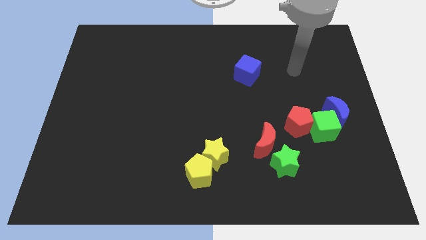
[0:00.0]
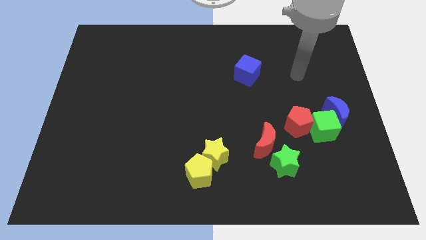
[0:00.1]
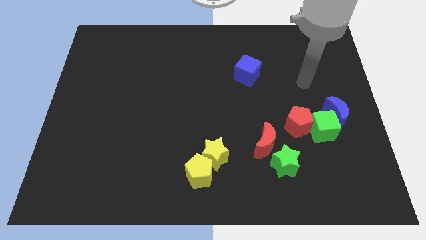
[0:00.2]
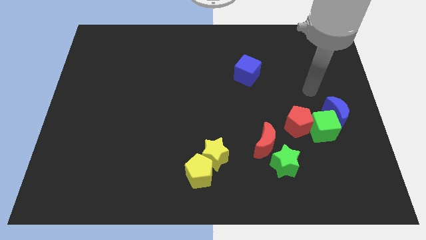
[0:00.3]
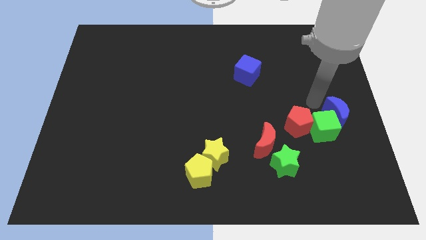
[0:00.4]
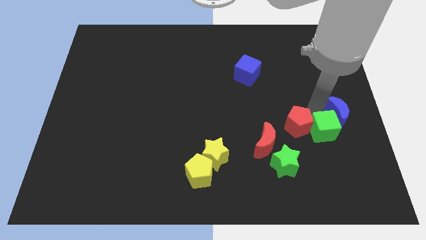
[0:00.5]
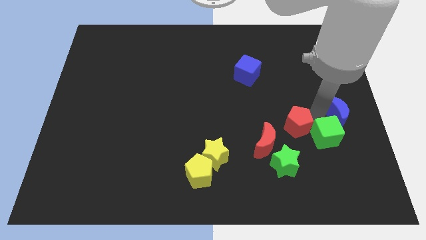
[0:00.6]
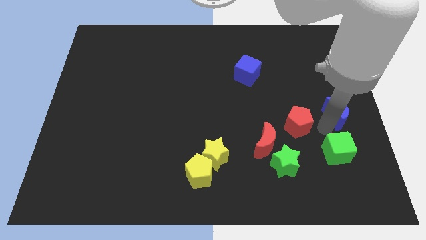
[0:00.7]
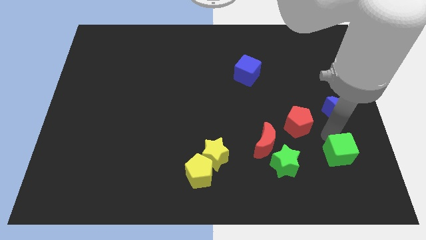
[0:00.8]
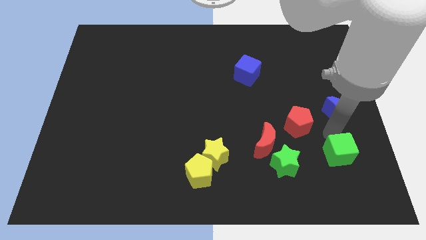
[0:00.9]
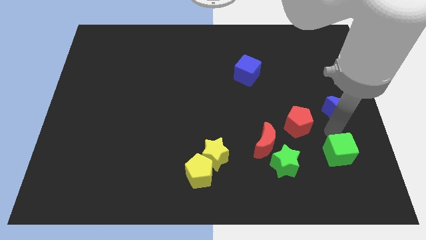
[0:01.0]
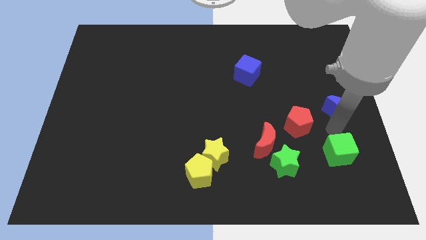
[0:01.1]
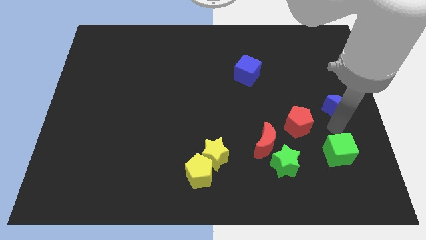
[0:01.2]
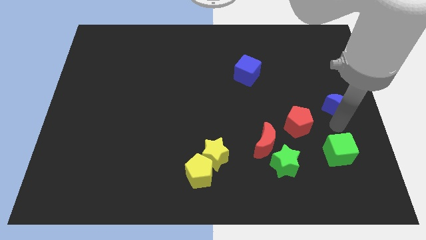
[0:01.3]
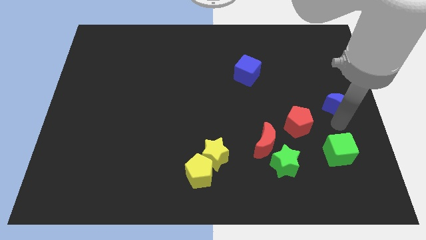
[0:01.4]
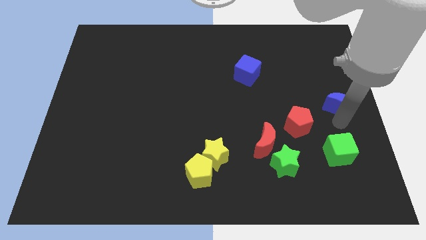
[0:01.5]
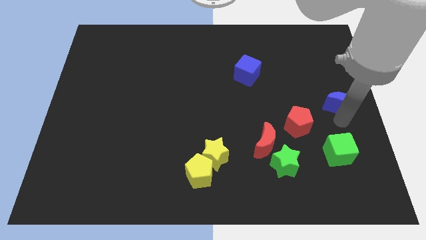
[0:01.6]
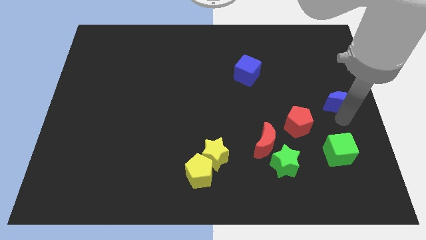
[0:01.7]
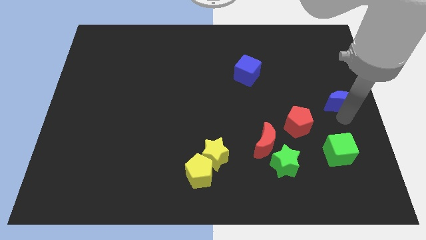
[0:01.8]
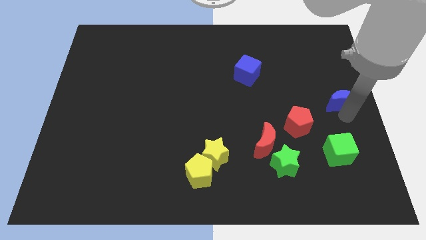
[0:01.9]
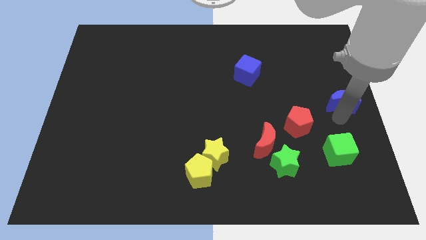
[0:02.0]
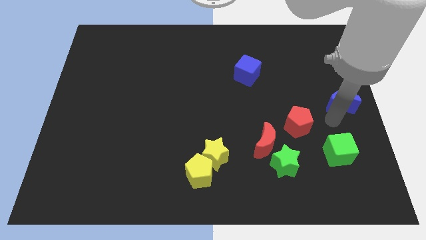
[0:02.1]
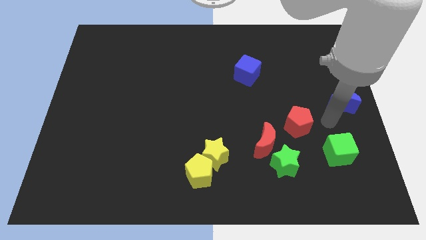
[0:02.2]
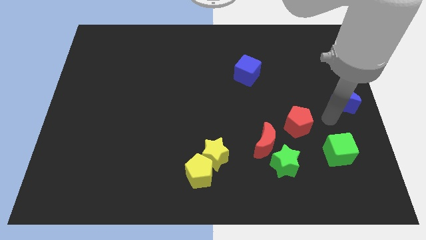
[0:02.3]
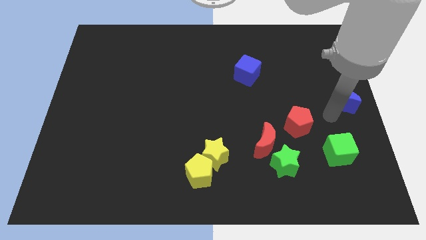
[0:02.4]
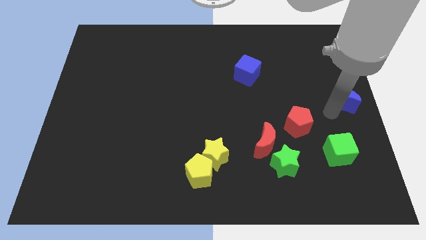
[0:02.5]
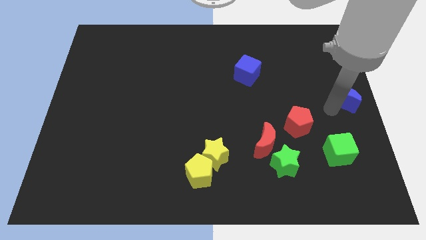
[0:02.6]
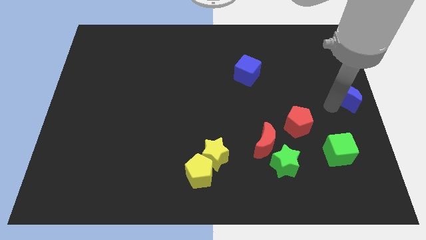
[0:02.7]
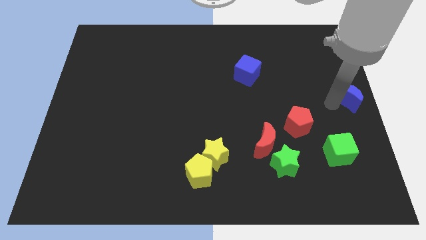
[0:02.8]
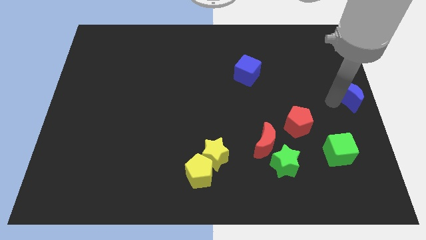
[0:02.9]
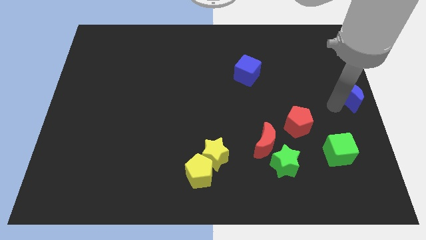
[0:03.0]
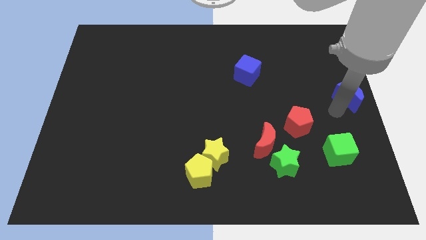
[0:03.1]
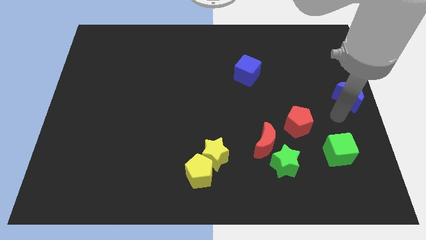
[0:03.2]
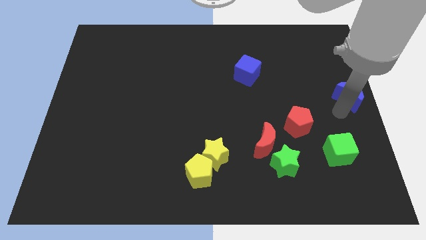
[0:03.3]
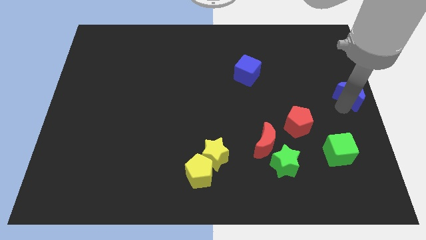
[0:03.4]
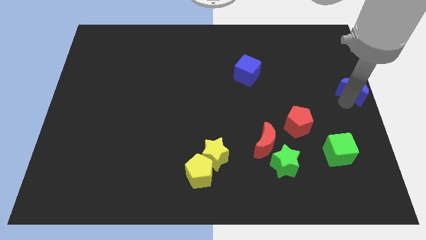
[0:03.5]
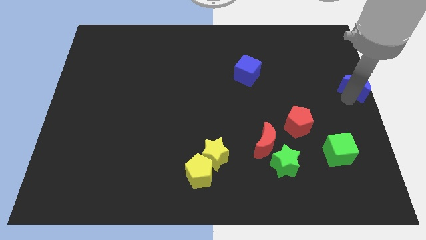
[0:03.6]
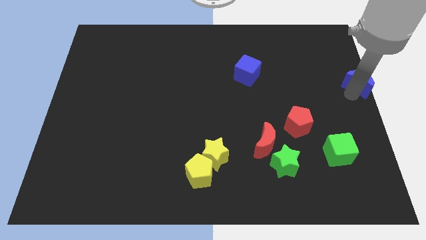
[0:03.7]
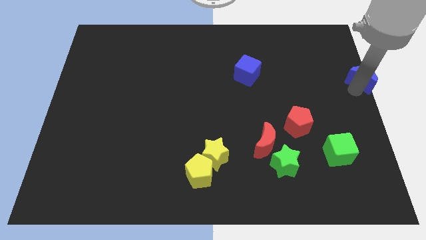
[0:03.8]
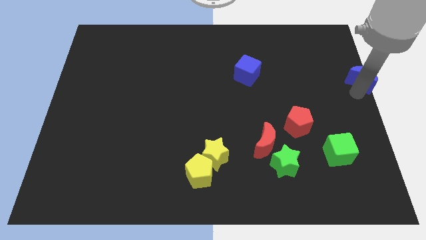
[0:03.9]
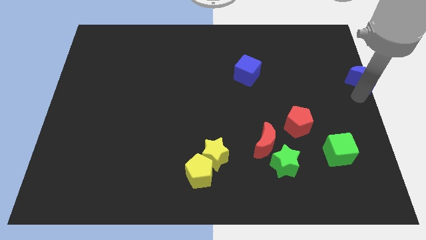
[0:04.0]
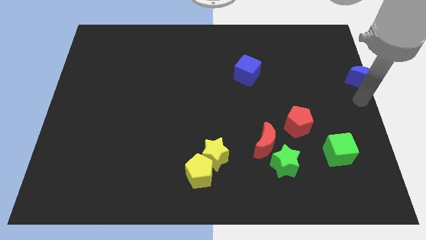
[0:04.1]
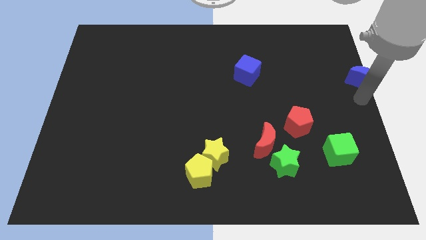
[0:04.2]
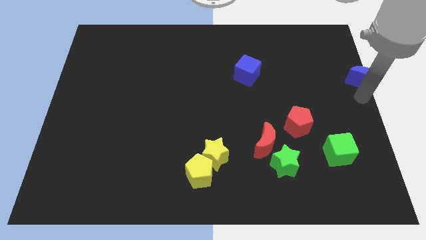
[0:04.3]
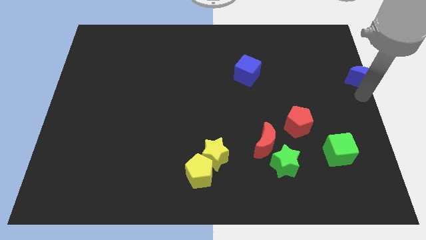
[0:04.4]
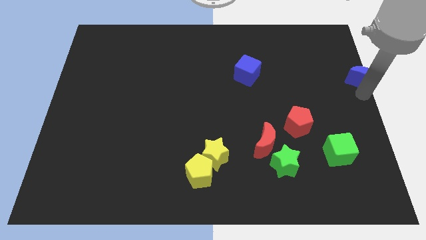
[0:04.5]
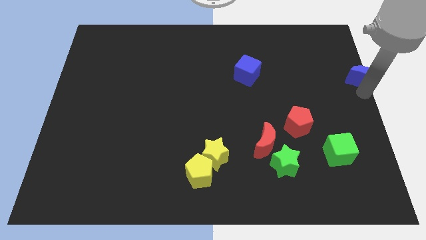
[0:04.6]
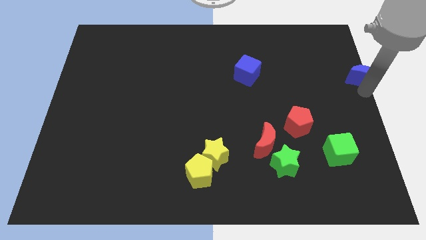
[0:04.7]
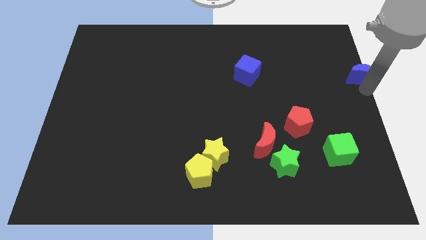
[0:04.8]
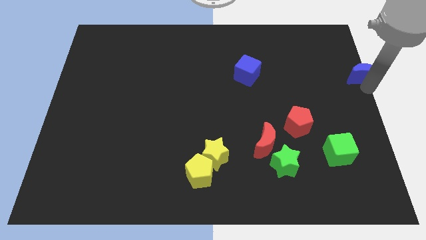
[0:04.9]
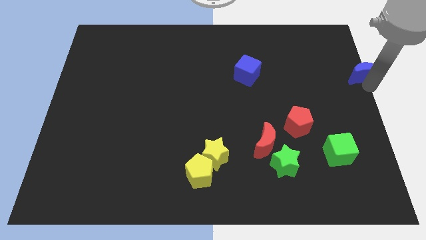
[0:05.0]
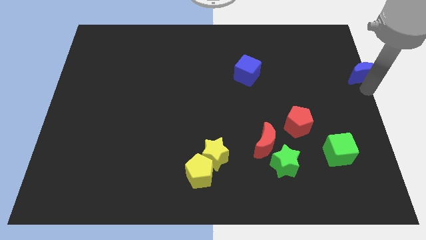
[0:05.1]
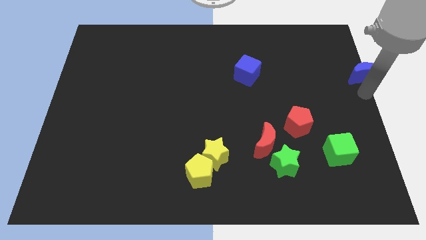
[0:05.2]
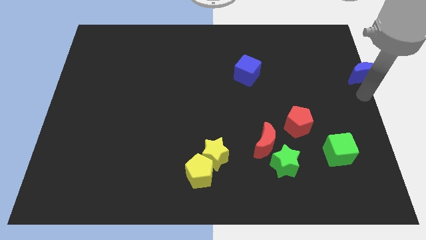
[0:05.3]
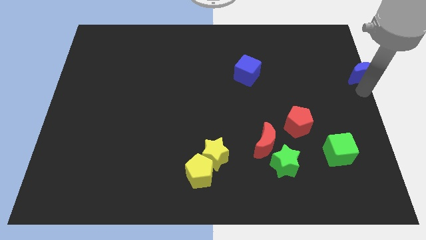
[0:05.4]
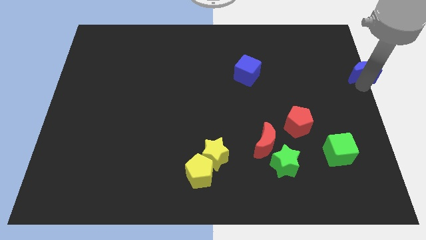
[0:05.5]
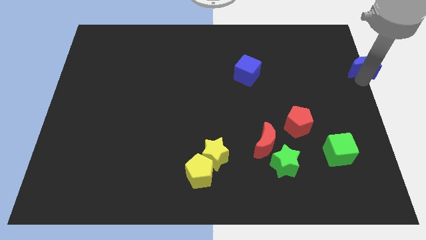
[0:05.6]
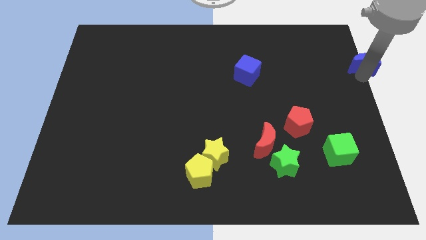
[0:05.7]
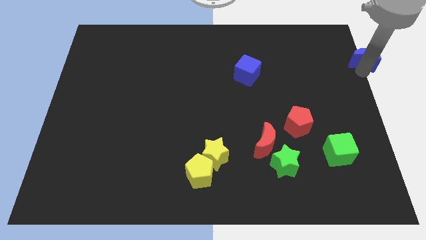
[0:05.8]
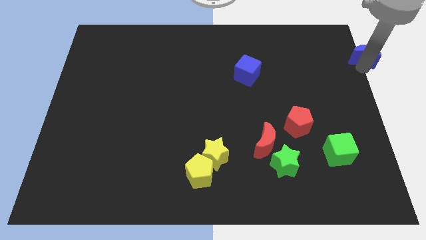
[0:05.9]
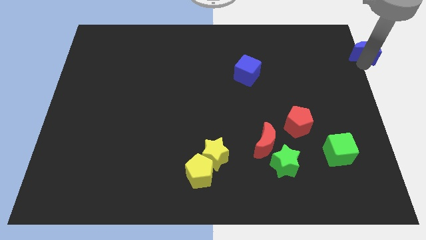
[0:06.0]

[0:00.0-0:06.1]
slide the blue moon to the upper right corner
